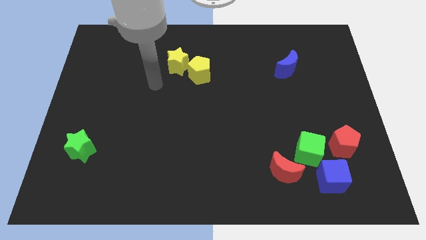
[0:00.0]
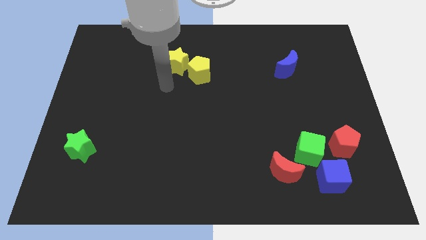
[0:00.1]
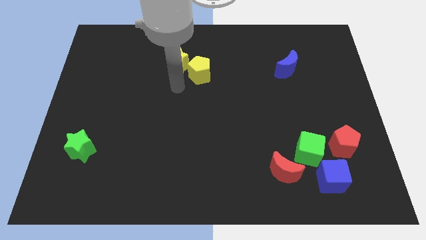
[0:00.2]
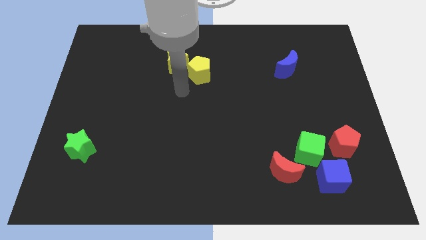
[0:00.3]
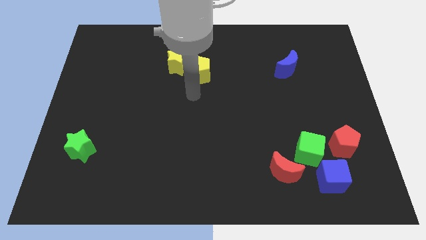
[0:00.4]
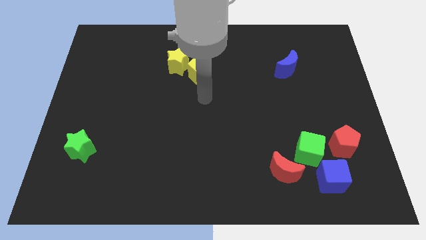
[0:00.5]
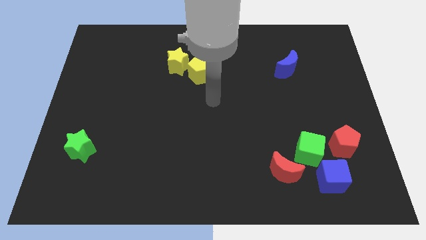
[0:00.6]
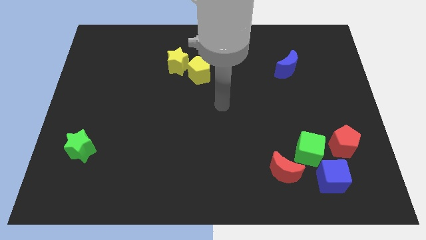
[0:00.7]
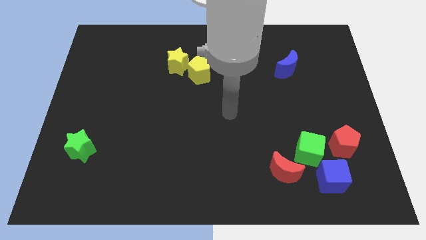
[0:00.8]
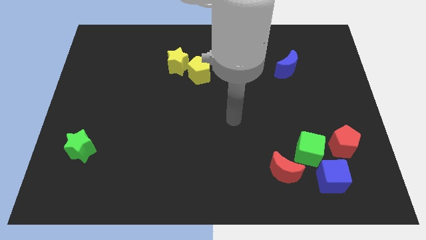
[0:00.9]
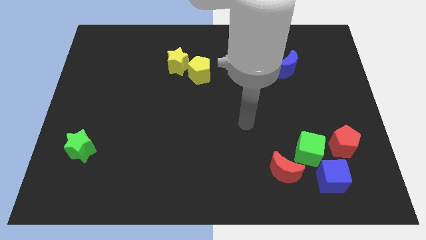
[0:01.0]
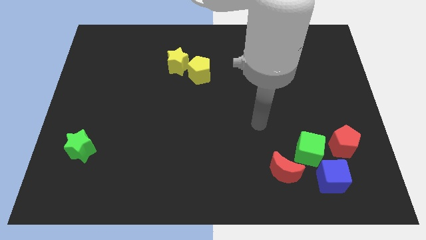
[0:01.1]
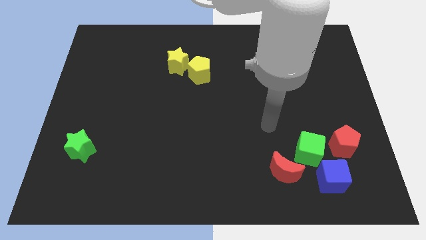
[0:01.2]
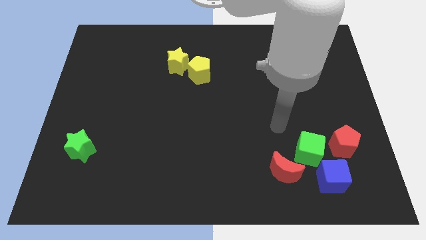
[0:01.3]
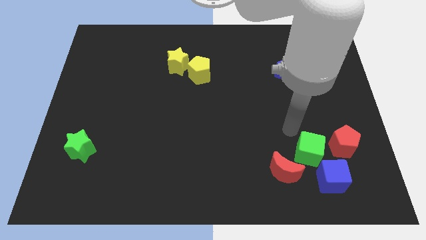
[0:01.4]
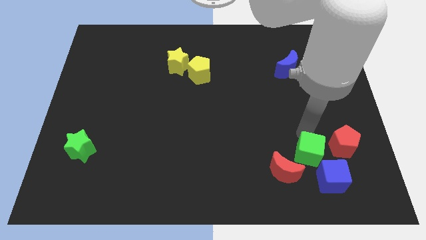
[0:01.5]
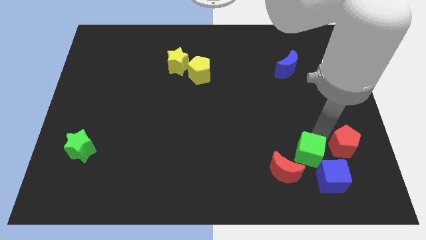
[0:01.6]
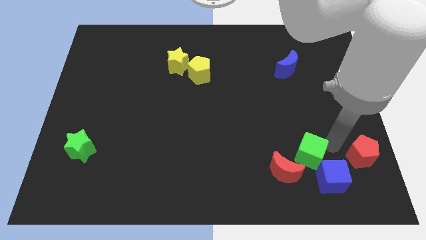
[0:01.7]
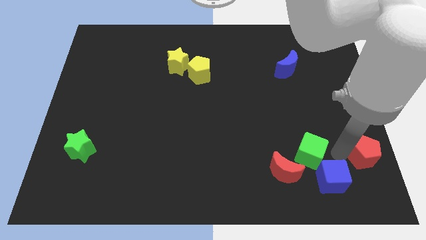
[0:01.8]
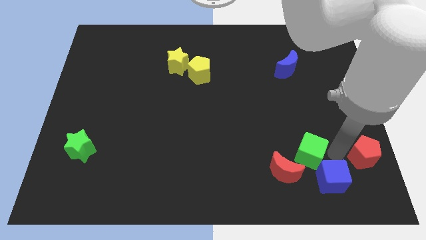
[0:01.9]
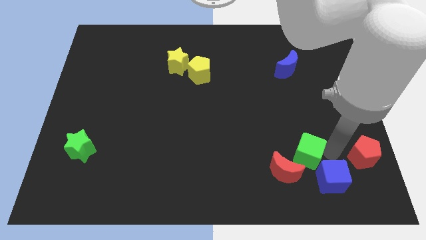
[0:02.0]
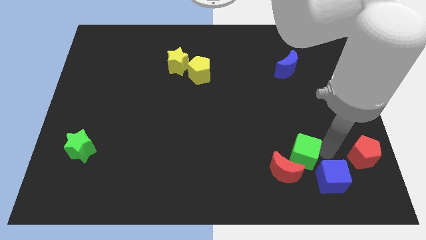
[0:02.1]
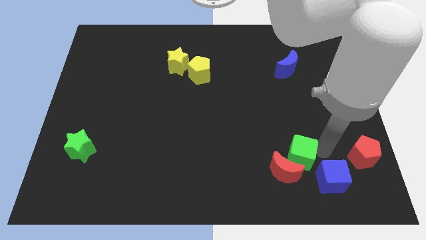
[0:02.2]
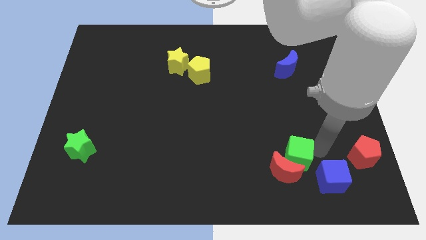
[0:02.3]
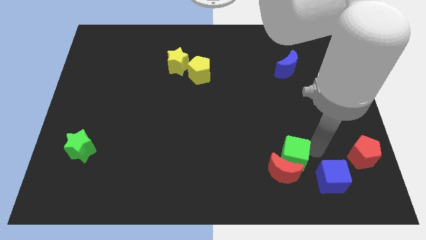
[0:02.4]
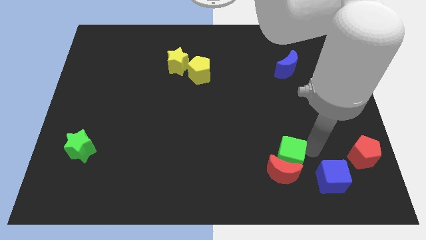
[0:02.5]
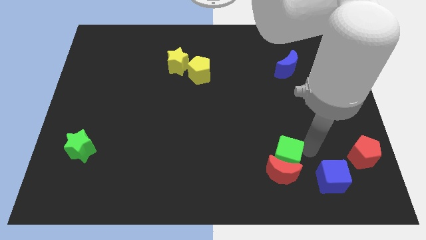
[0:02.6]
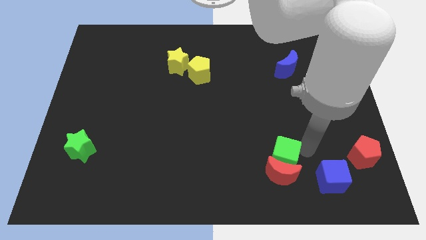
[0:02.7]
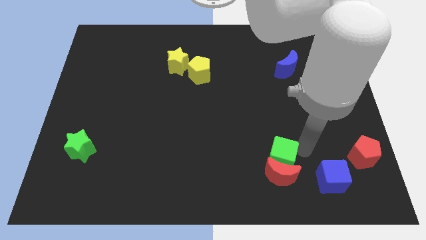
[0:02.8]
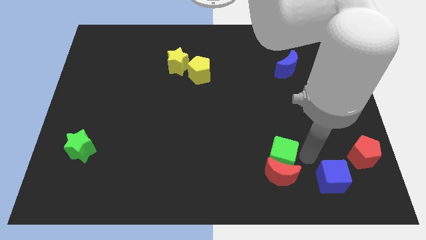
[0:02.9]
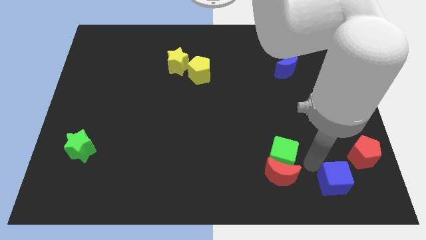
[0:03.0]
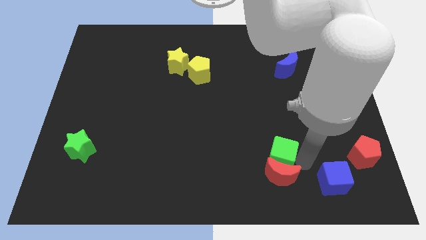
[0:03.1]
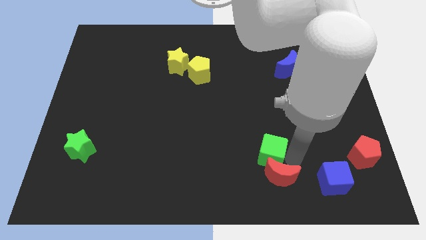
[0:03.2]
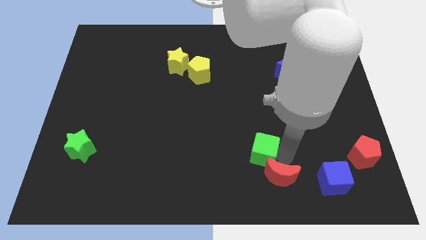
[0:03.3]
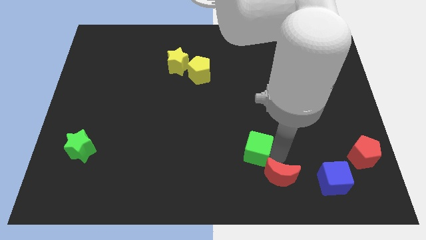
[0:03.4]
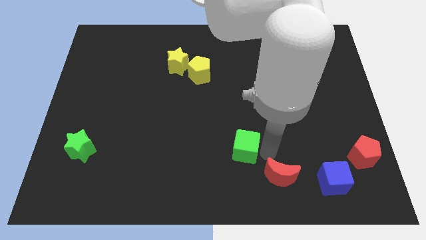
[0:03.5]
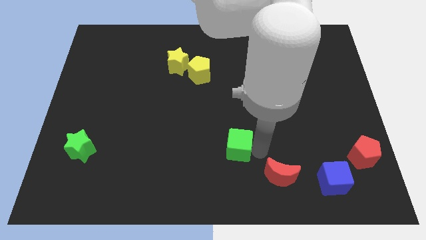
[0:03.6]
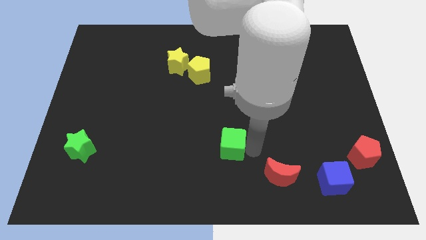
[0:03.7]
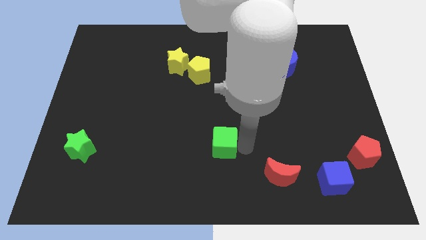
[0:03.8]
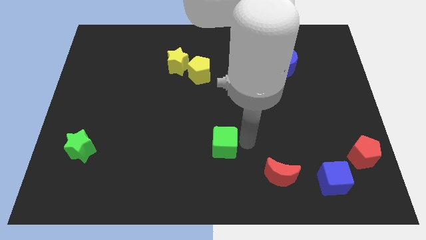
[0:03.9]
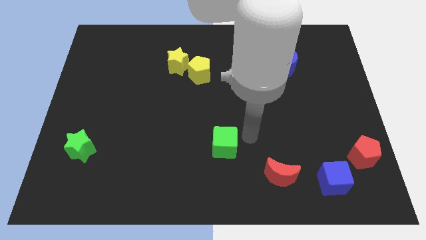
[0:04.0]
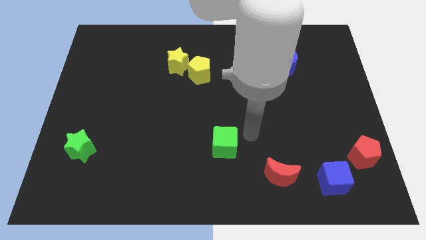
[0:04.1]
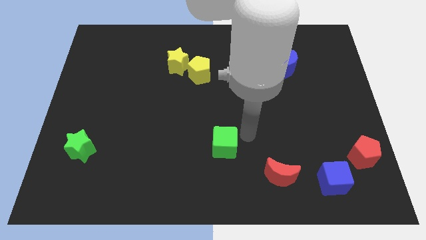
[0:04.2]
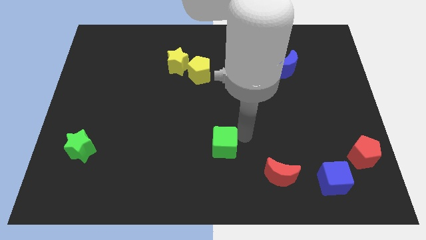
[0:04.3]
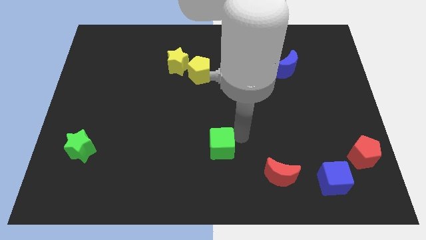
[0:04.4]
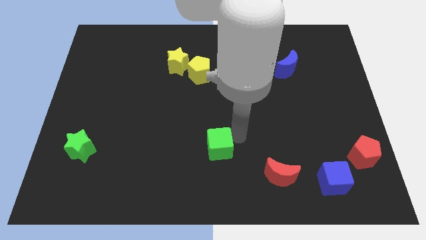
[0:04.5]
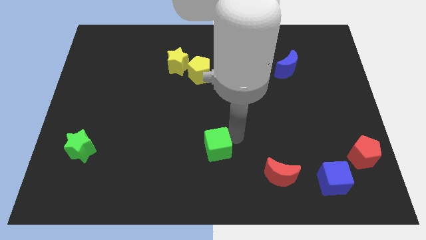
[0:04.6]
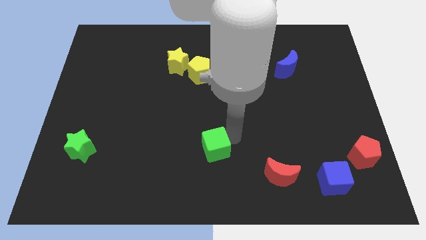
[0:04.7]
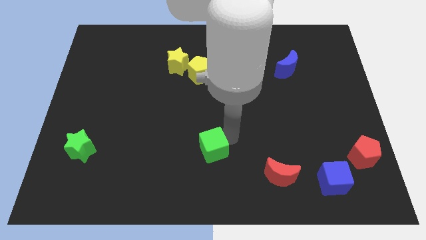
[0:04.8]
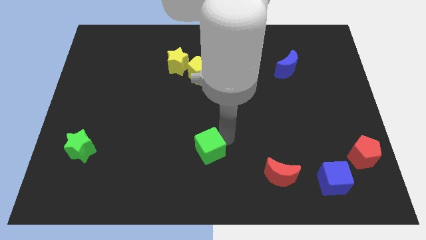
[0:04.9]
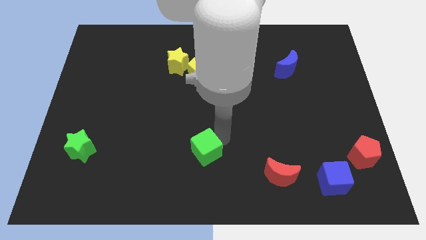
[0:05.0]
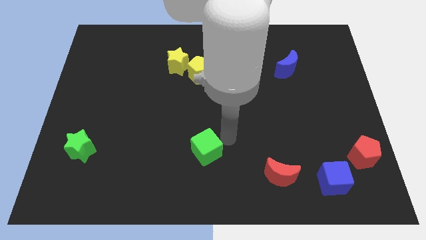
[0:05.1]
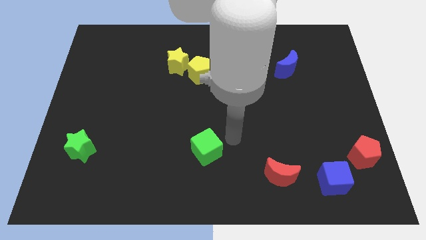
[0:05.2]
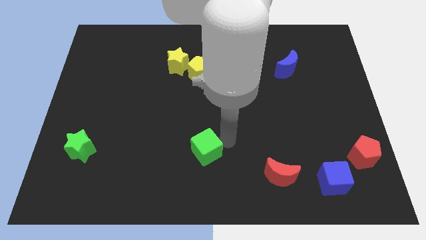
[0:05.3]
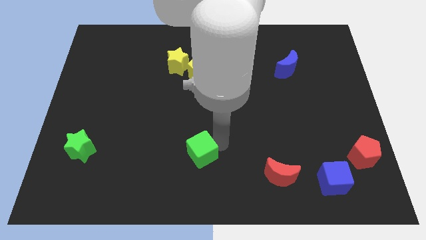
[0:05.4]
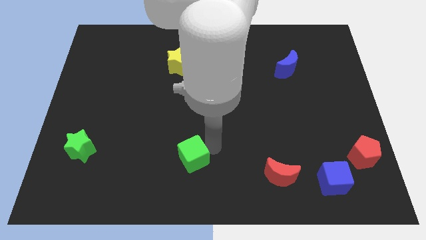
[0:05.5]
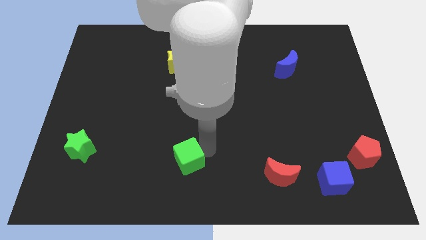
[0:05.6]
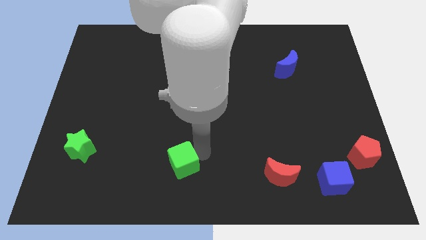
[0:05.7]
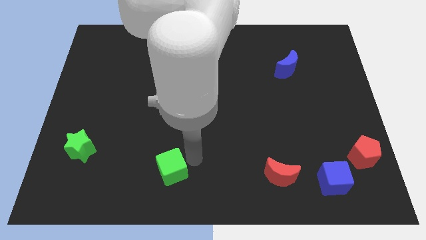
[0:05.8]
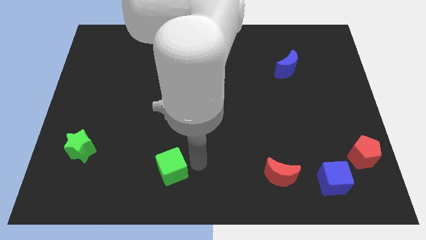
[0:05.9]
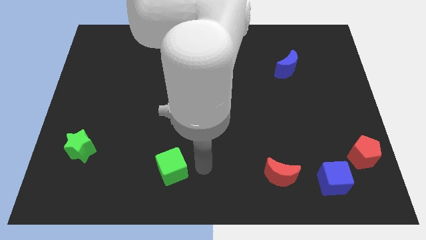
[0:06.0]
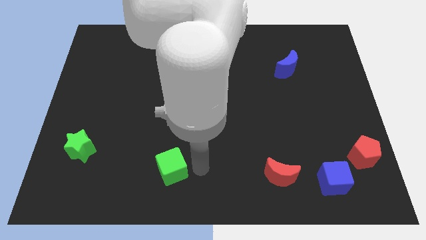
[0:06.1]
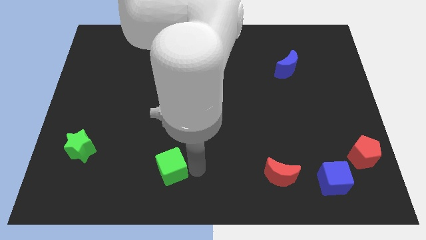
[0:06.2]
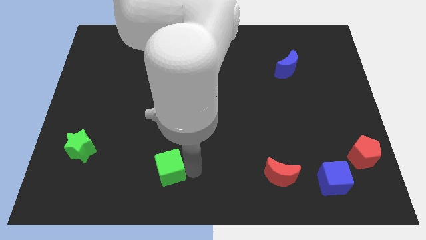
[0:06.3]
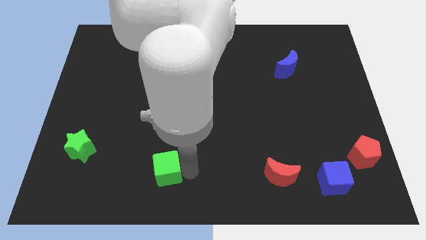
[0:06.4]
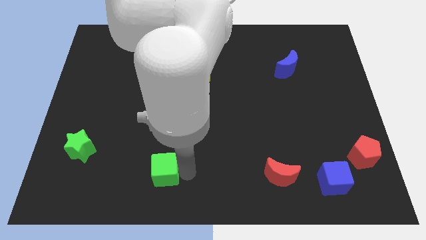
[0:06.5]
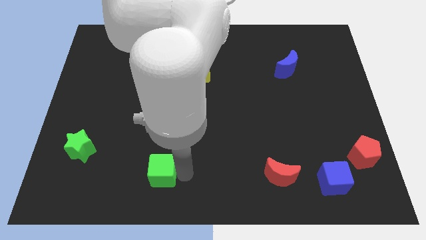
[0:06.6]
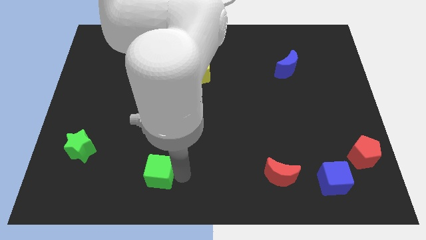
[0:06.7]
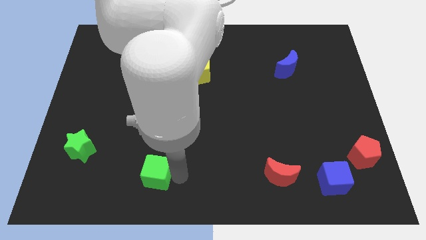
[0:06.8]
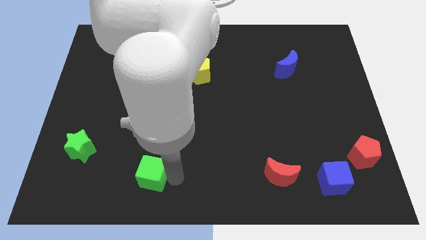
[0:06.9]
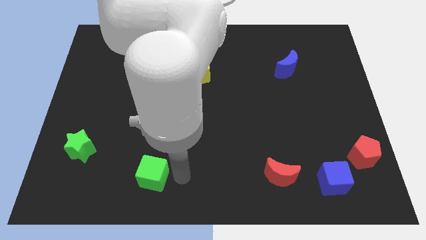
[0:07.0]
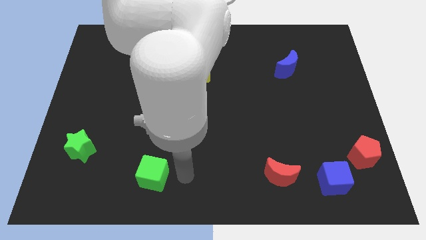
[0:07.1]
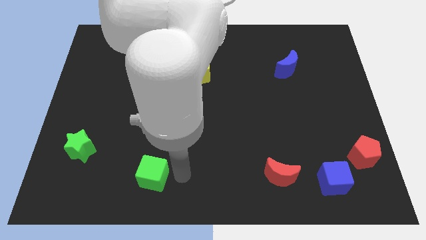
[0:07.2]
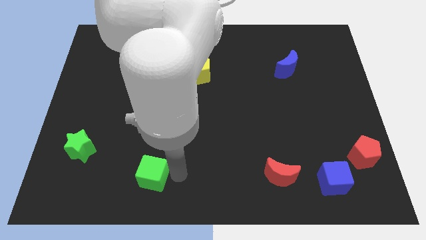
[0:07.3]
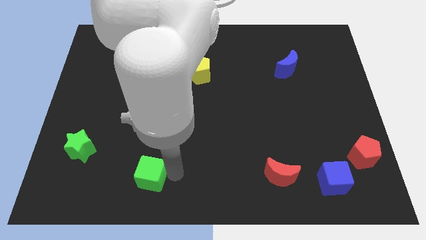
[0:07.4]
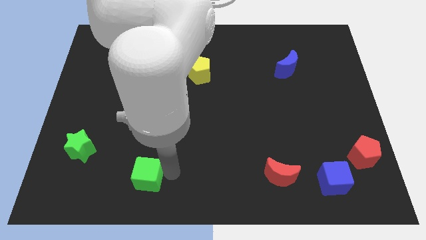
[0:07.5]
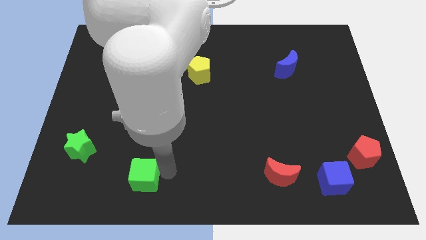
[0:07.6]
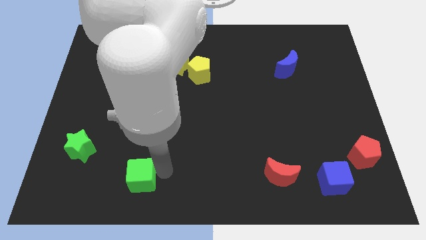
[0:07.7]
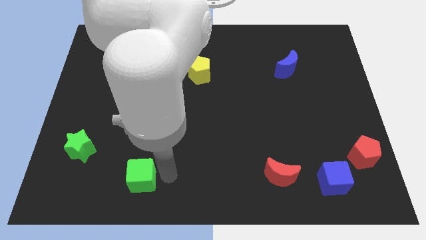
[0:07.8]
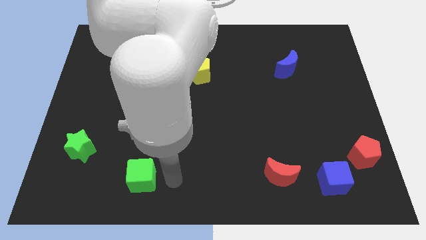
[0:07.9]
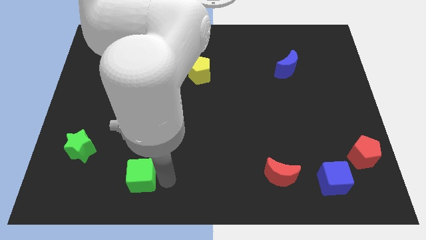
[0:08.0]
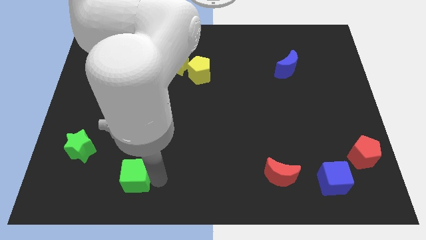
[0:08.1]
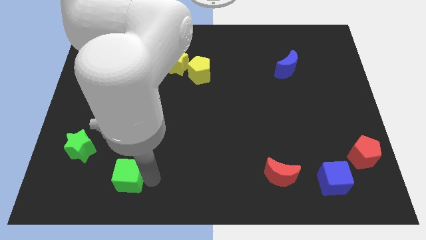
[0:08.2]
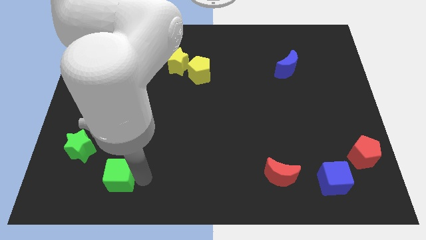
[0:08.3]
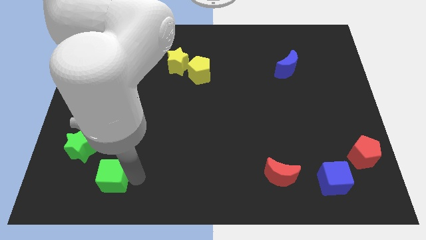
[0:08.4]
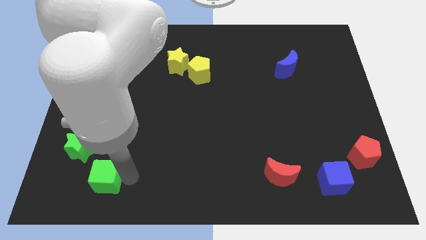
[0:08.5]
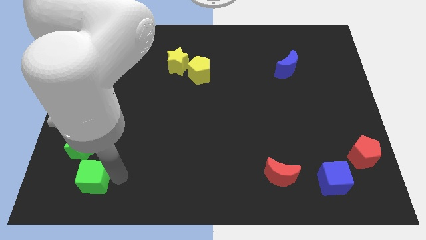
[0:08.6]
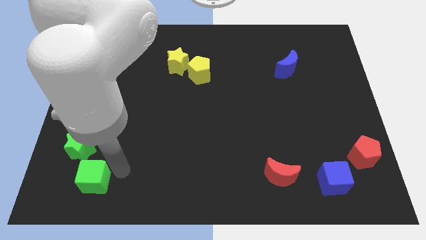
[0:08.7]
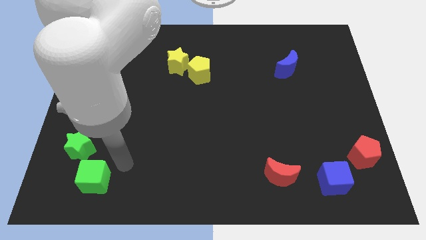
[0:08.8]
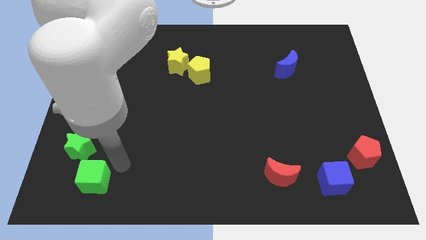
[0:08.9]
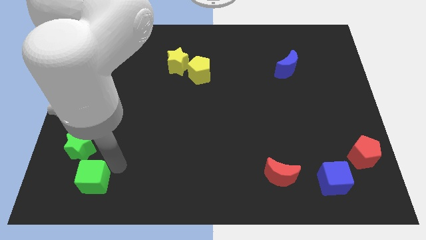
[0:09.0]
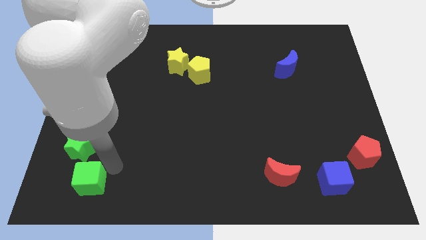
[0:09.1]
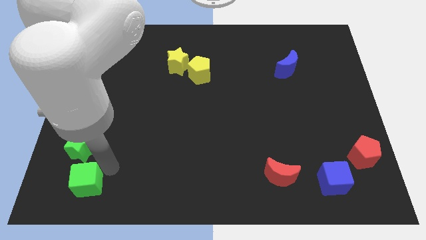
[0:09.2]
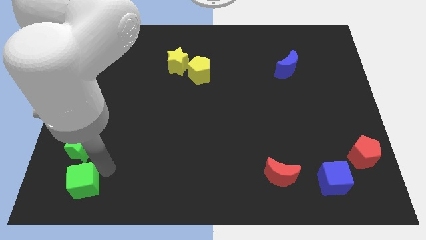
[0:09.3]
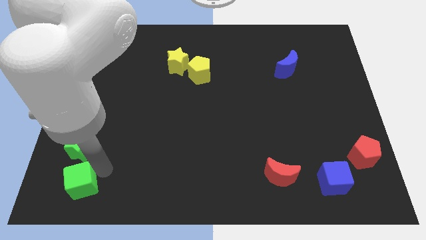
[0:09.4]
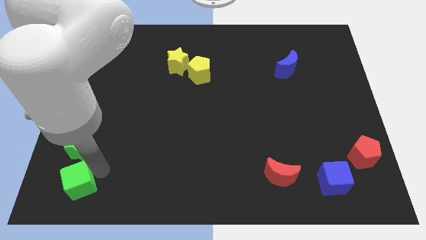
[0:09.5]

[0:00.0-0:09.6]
slide the green cube to the lower left corner
